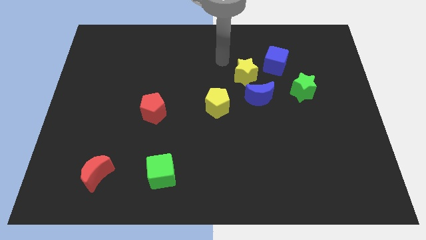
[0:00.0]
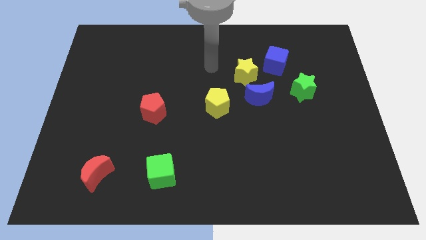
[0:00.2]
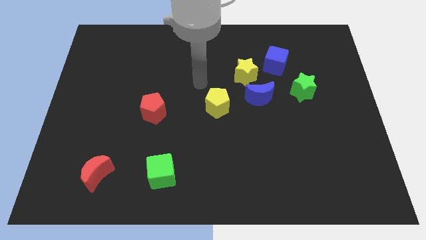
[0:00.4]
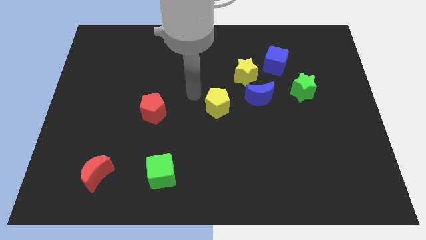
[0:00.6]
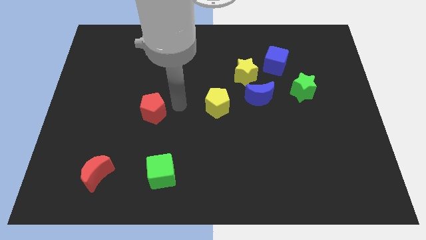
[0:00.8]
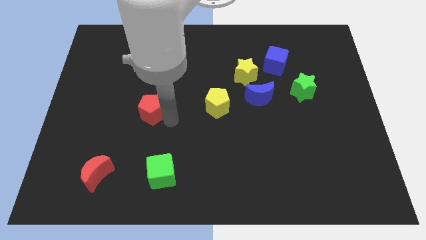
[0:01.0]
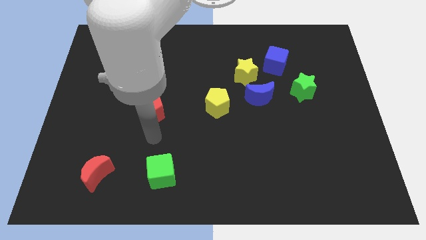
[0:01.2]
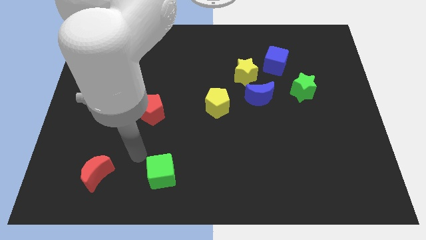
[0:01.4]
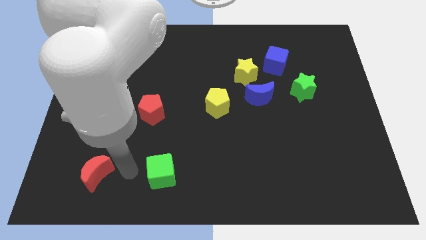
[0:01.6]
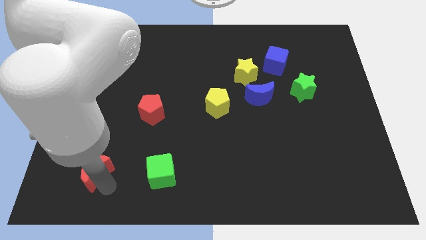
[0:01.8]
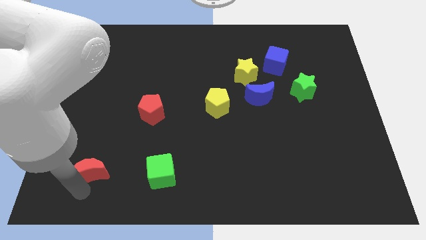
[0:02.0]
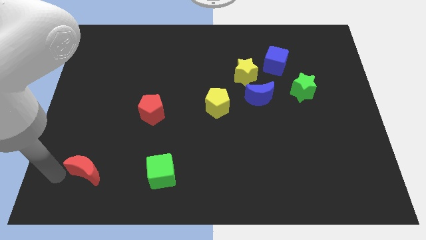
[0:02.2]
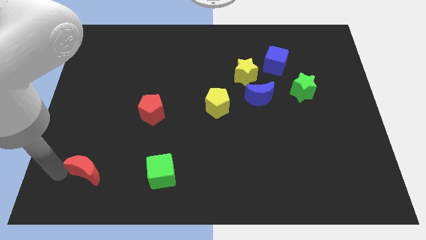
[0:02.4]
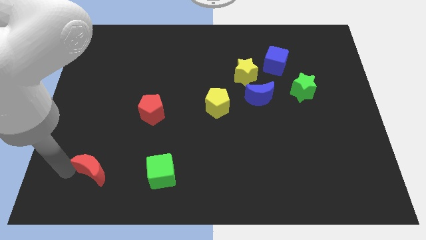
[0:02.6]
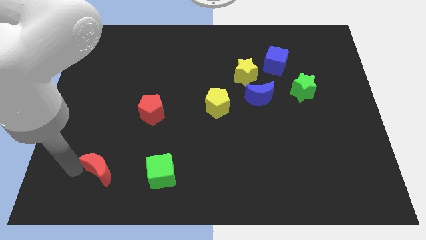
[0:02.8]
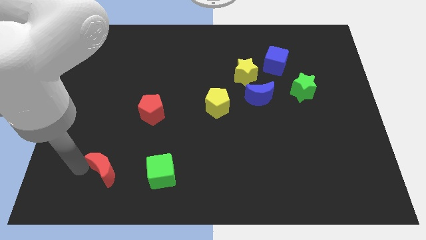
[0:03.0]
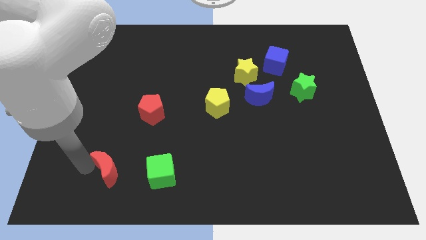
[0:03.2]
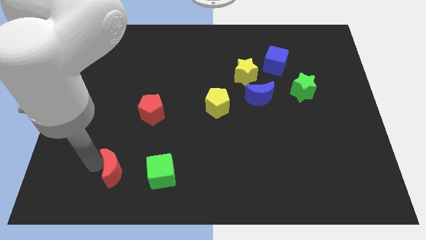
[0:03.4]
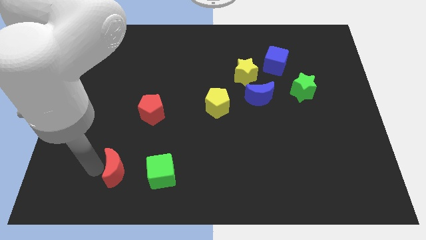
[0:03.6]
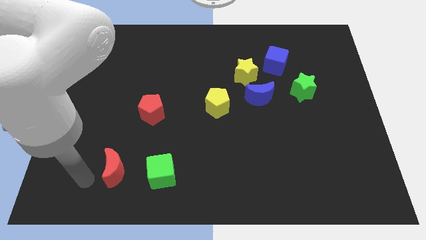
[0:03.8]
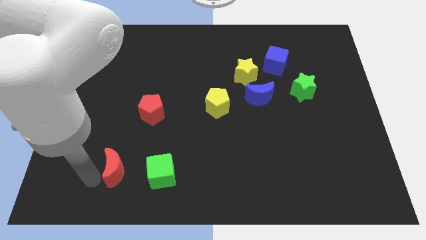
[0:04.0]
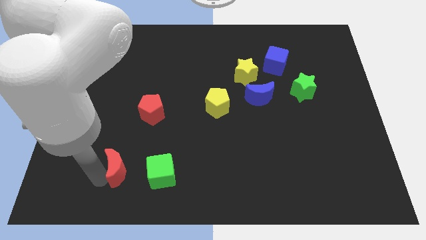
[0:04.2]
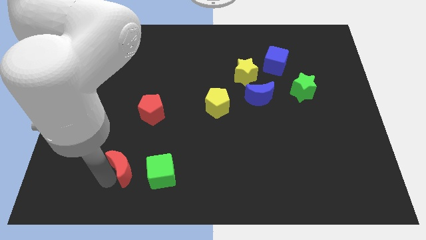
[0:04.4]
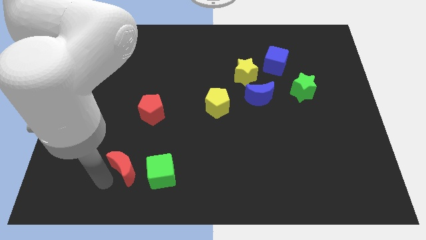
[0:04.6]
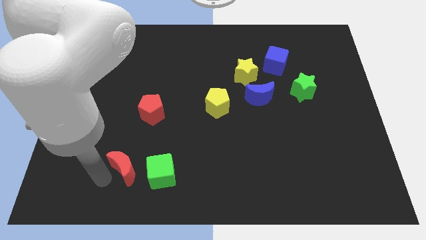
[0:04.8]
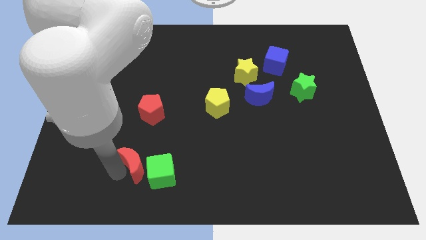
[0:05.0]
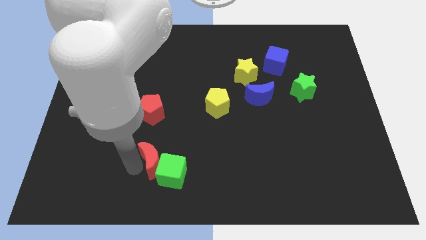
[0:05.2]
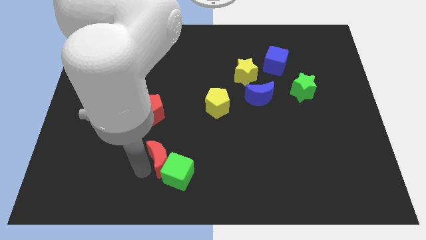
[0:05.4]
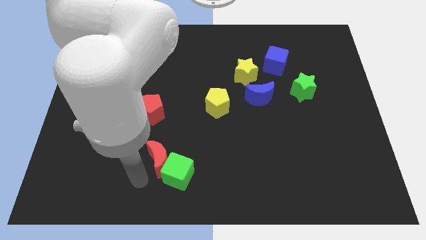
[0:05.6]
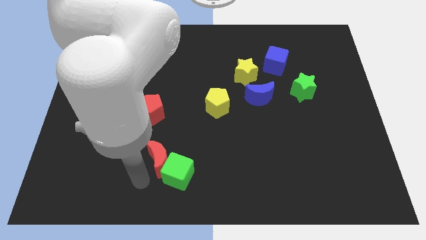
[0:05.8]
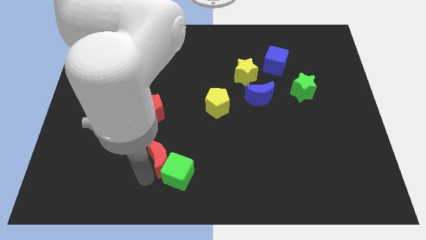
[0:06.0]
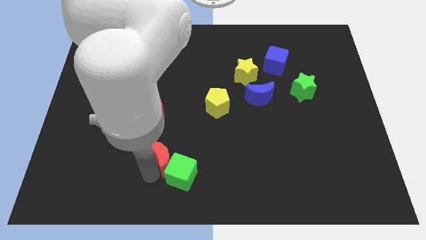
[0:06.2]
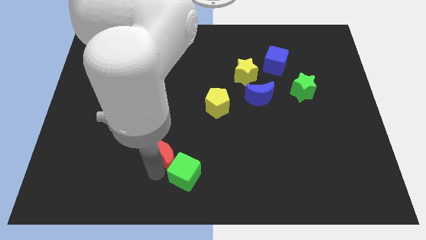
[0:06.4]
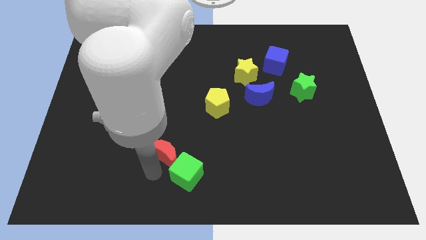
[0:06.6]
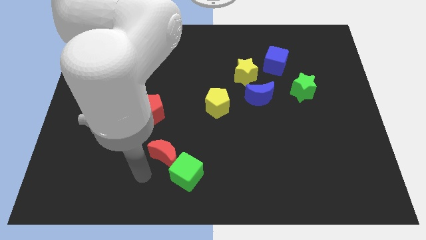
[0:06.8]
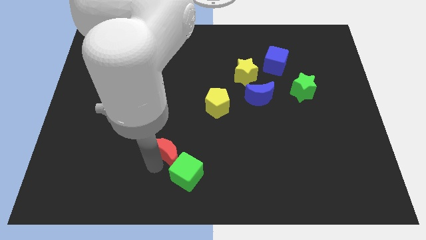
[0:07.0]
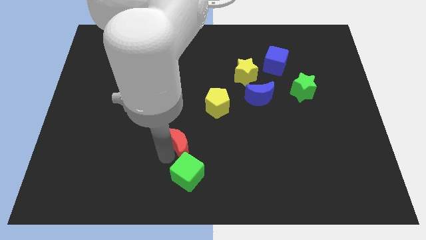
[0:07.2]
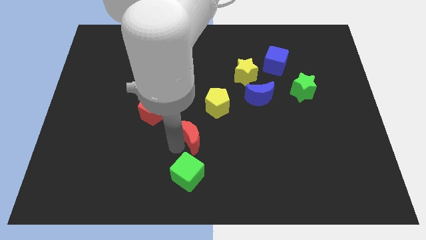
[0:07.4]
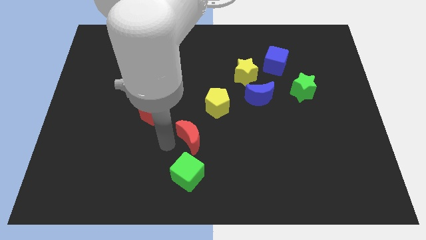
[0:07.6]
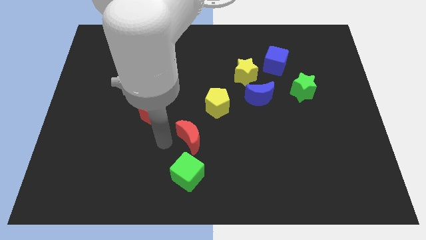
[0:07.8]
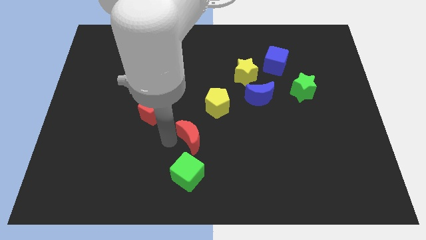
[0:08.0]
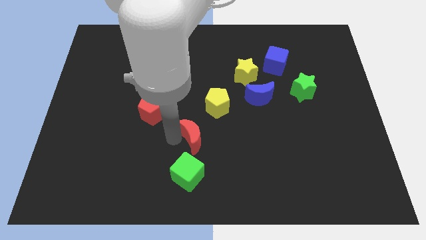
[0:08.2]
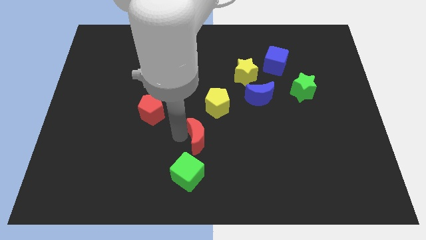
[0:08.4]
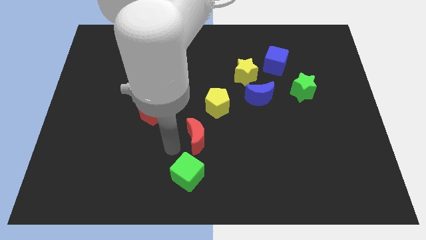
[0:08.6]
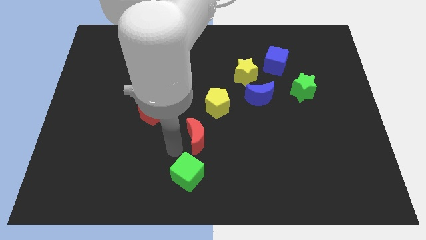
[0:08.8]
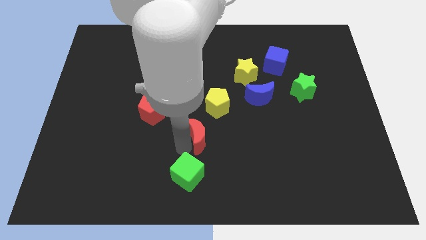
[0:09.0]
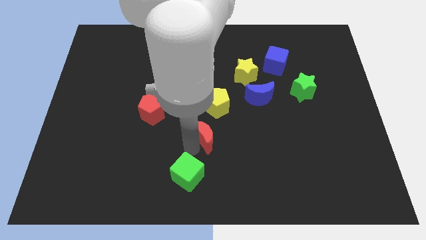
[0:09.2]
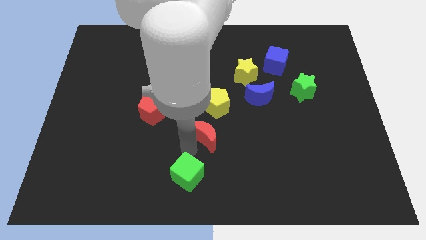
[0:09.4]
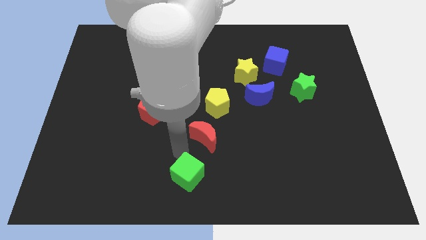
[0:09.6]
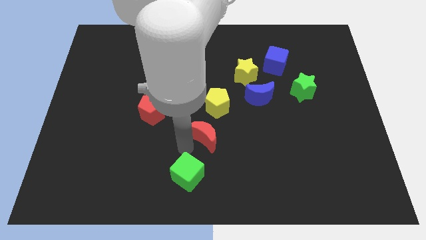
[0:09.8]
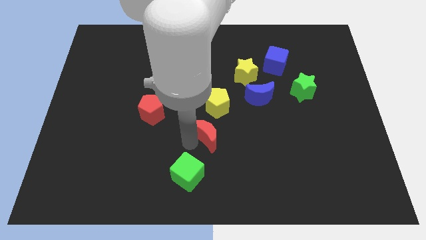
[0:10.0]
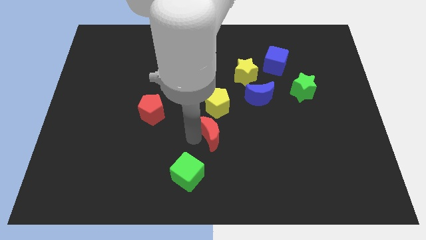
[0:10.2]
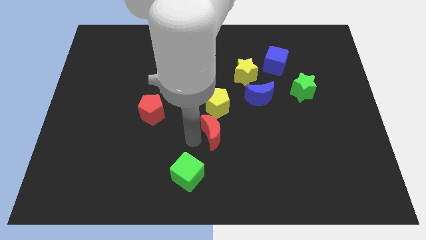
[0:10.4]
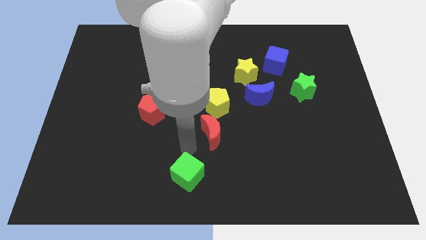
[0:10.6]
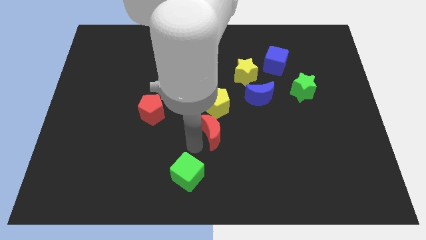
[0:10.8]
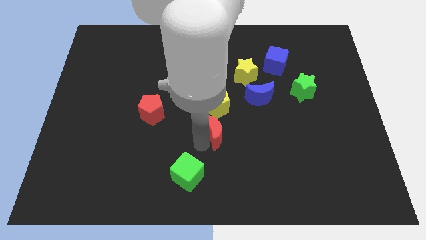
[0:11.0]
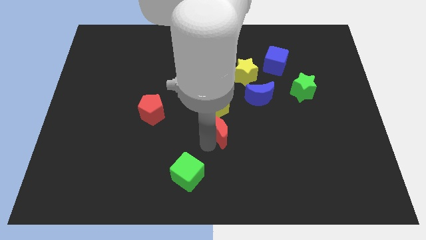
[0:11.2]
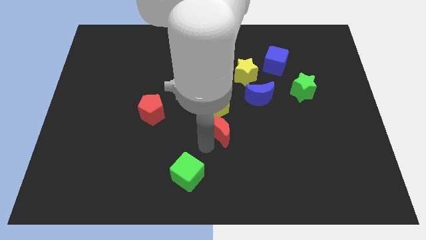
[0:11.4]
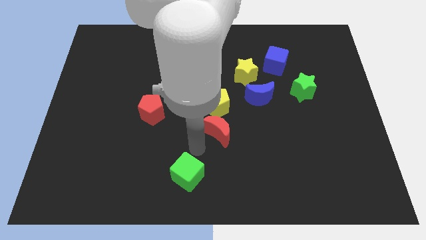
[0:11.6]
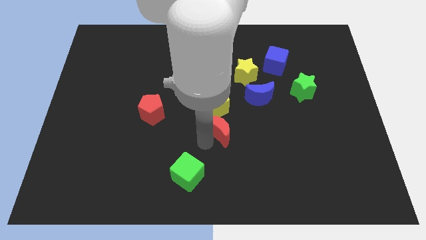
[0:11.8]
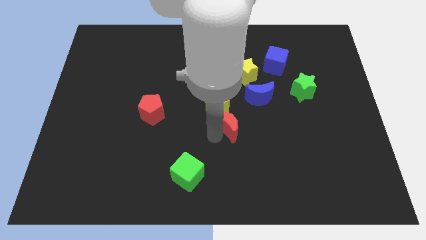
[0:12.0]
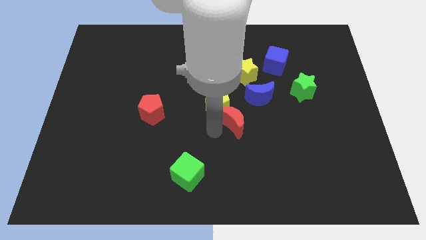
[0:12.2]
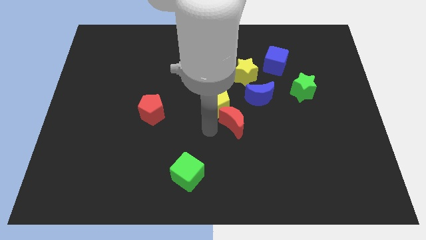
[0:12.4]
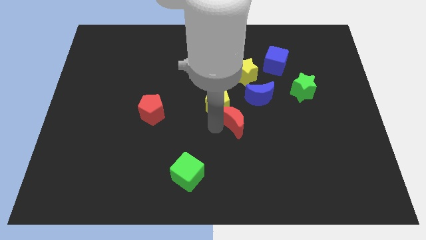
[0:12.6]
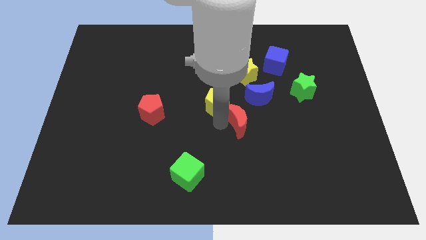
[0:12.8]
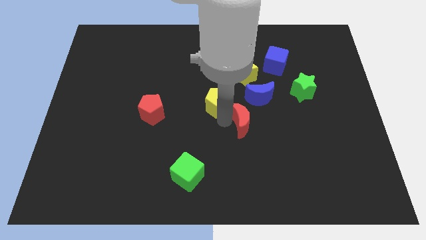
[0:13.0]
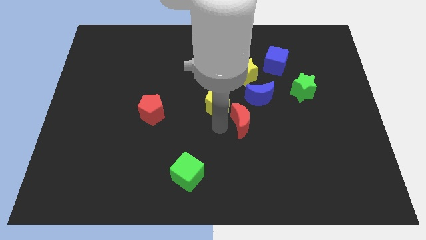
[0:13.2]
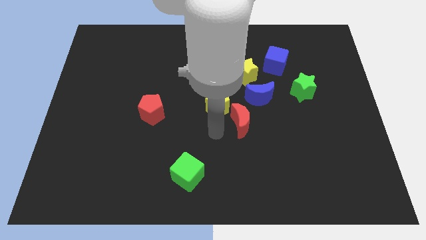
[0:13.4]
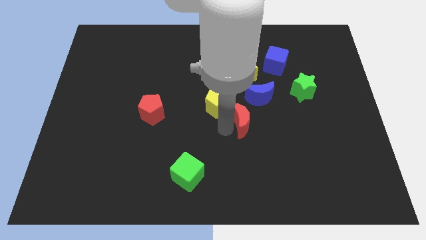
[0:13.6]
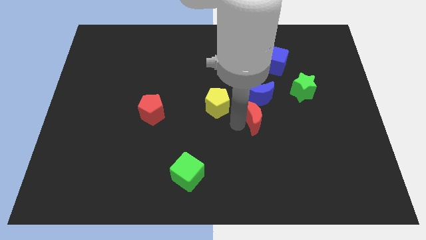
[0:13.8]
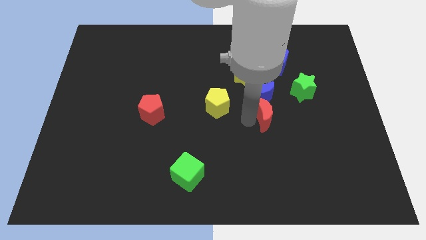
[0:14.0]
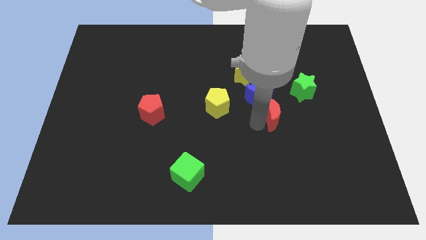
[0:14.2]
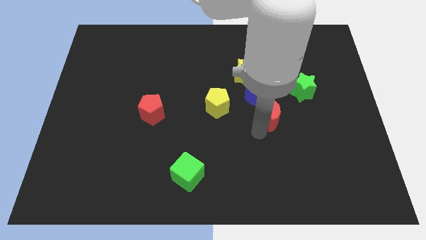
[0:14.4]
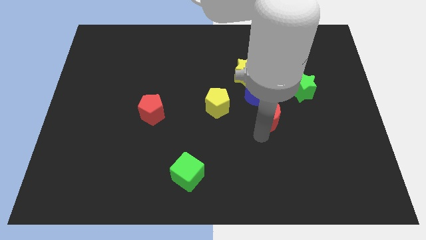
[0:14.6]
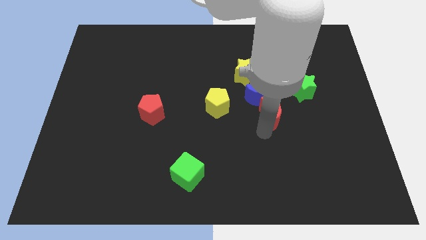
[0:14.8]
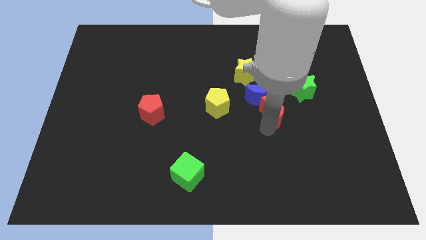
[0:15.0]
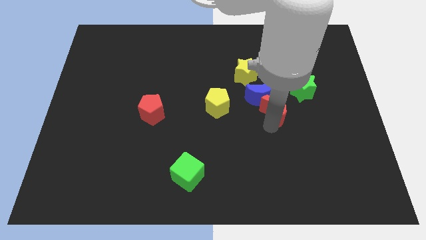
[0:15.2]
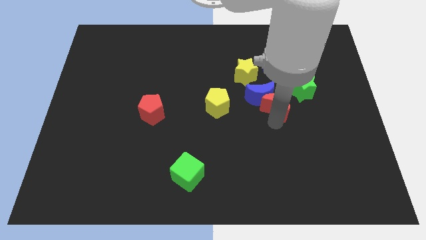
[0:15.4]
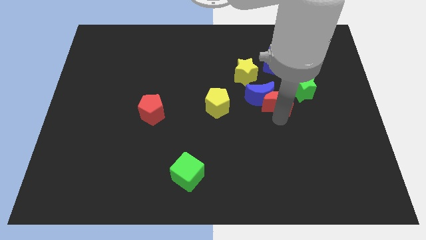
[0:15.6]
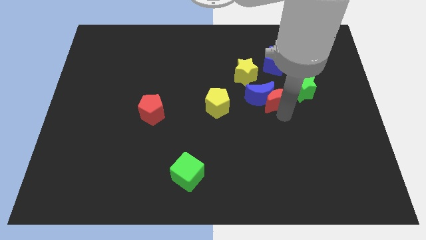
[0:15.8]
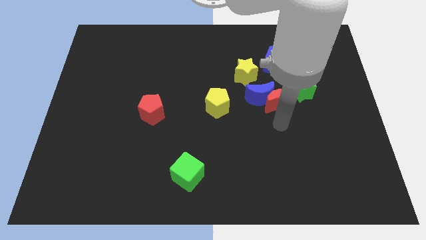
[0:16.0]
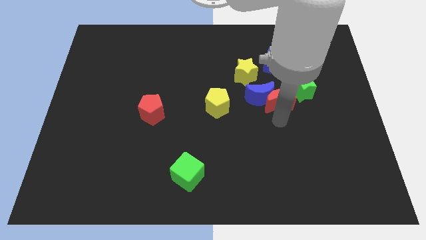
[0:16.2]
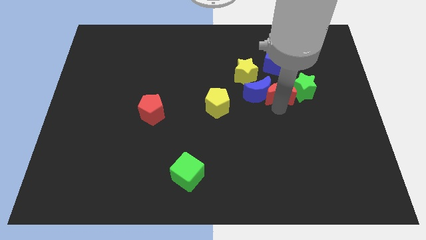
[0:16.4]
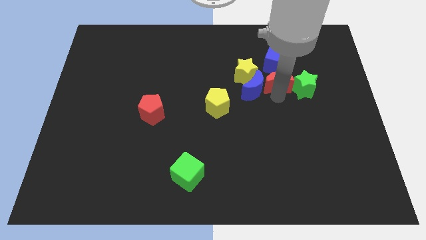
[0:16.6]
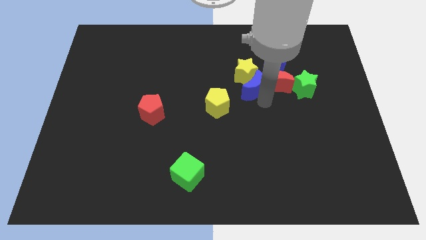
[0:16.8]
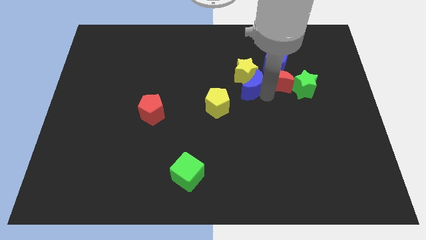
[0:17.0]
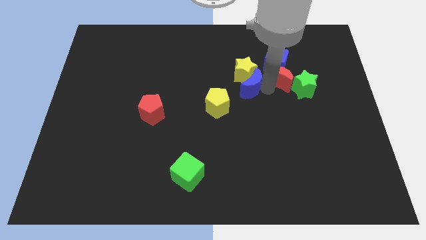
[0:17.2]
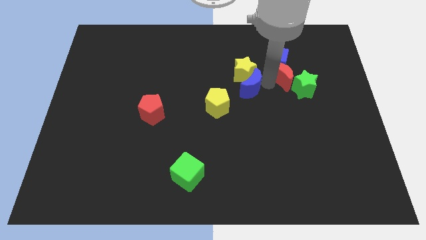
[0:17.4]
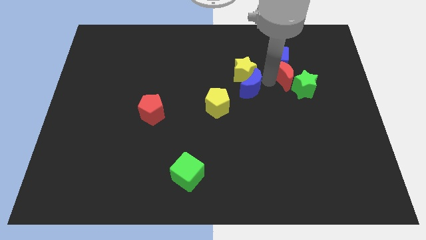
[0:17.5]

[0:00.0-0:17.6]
move the red moon to the top side of the green star
